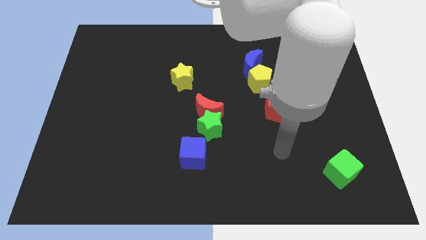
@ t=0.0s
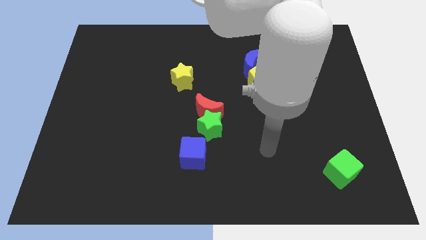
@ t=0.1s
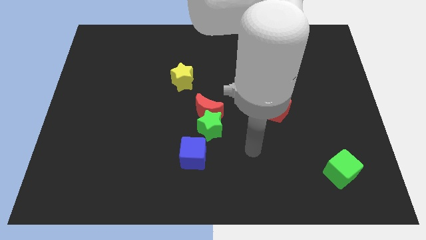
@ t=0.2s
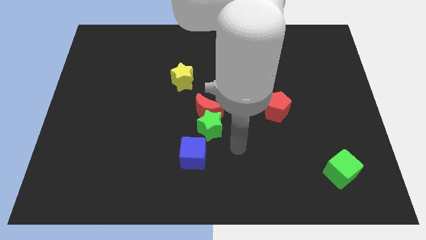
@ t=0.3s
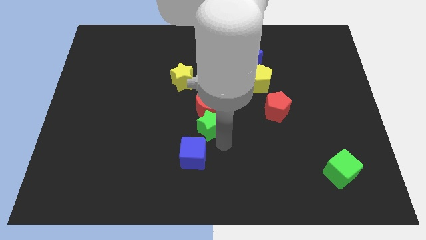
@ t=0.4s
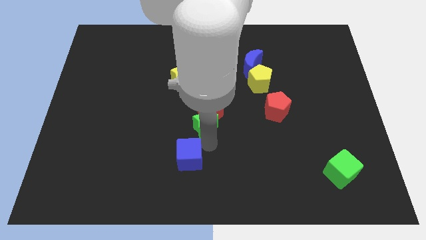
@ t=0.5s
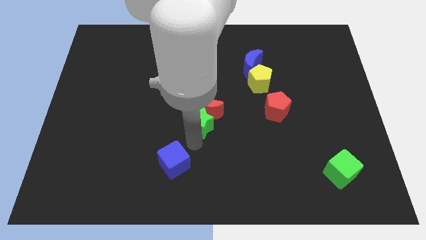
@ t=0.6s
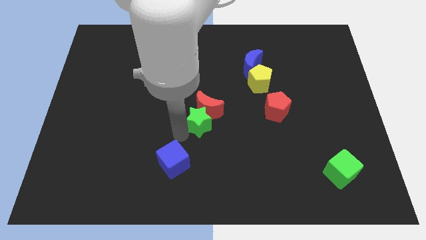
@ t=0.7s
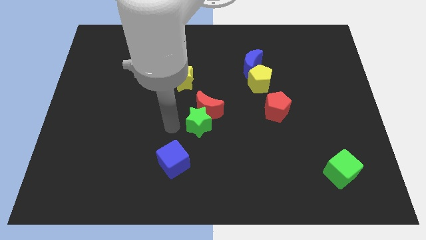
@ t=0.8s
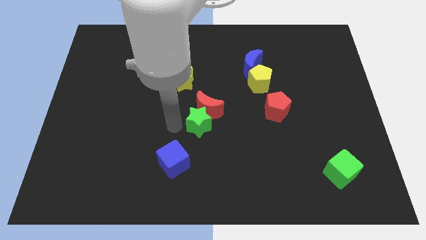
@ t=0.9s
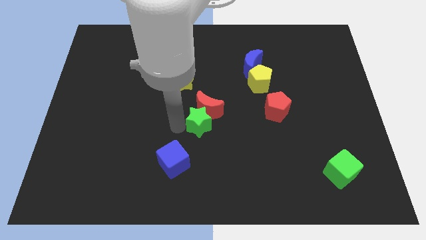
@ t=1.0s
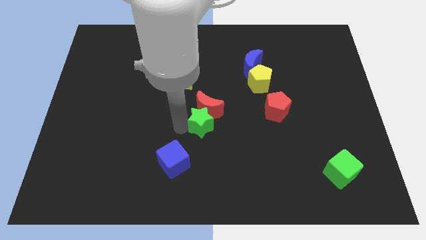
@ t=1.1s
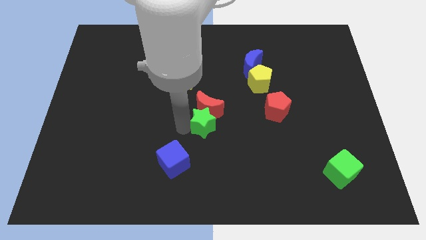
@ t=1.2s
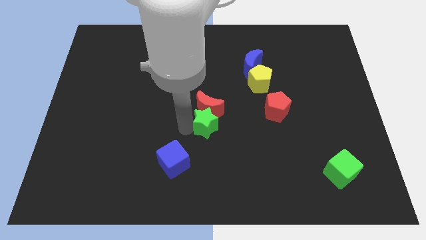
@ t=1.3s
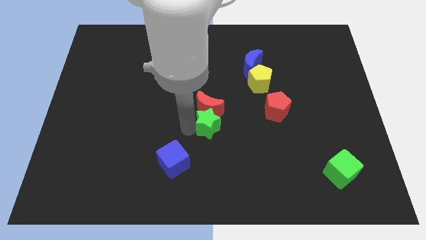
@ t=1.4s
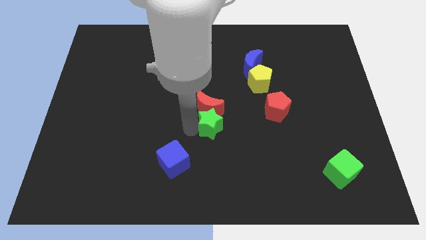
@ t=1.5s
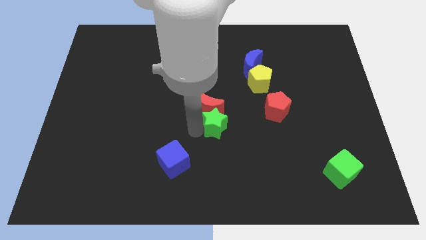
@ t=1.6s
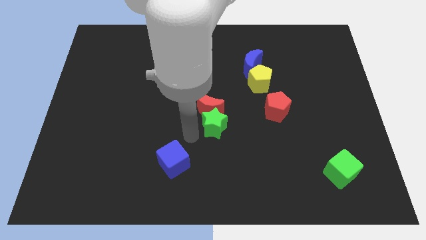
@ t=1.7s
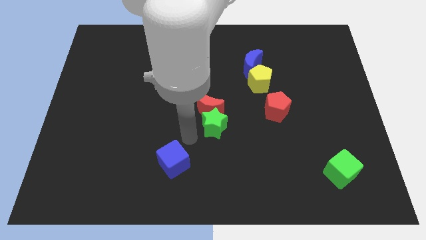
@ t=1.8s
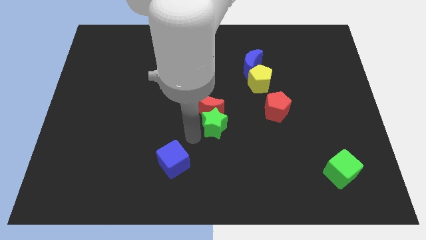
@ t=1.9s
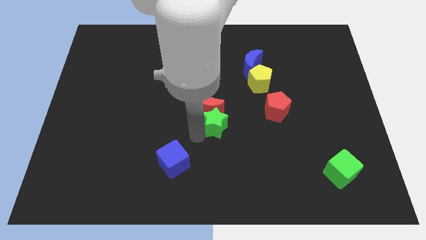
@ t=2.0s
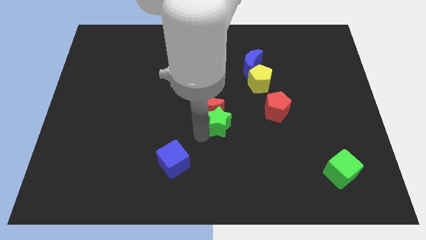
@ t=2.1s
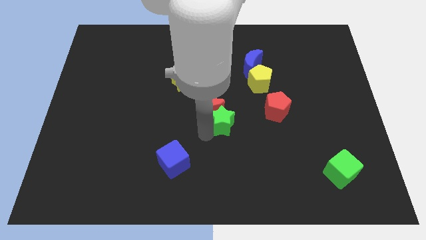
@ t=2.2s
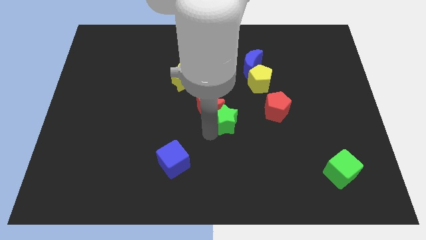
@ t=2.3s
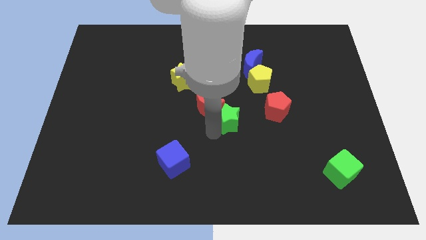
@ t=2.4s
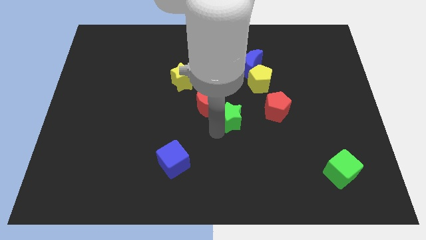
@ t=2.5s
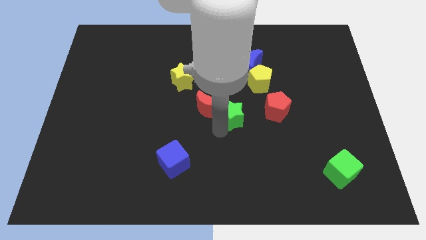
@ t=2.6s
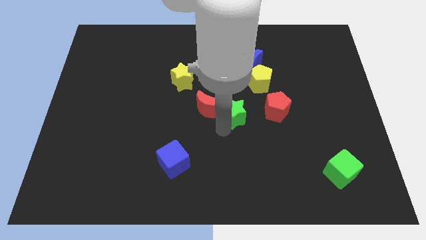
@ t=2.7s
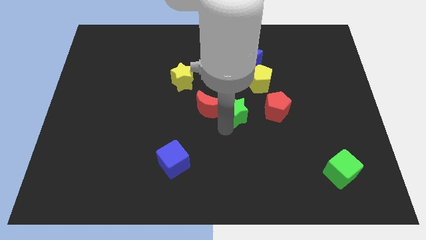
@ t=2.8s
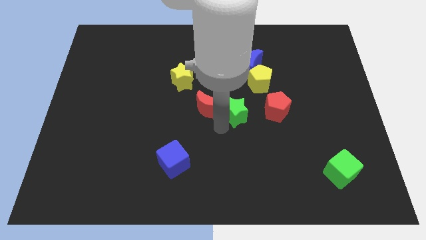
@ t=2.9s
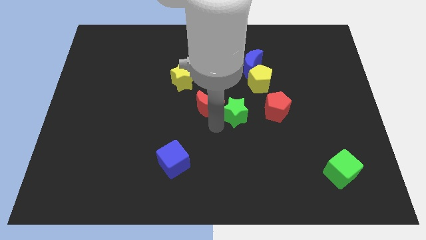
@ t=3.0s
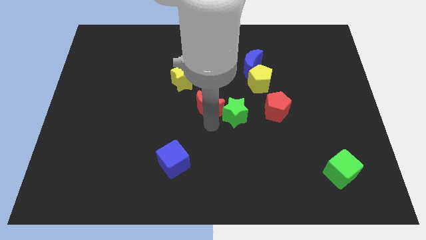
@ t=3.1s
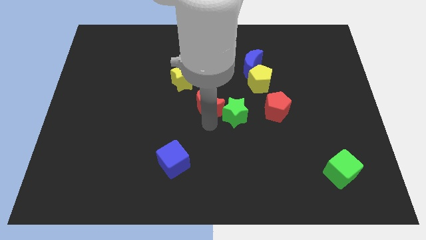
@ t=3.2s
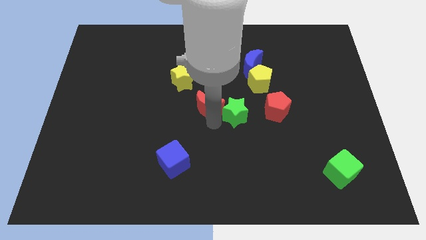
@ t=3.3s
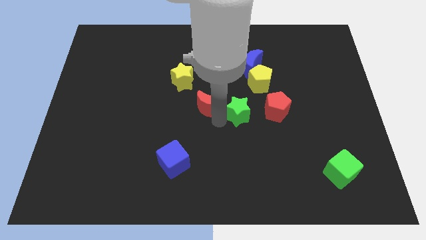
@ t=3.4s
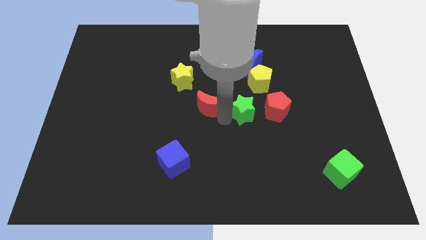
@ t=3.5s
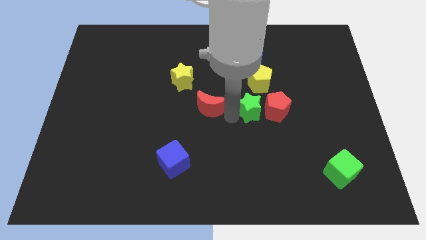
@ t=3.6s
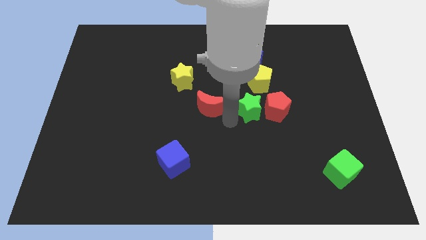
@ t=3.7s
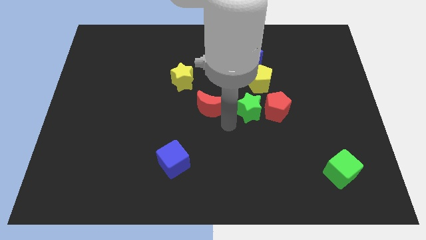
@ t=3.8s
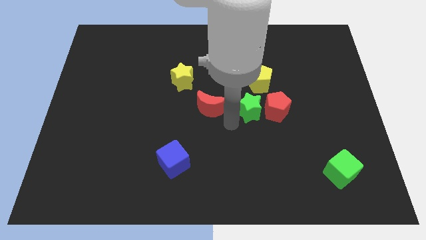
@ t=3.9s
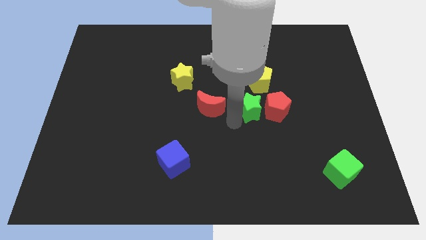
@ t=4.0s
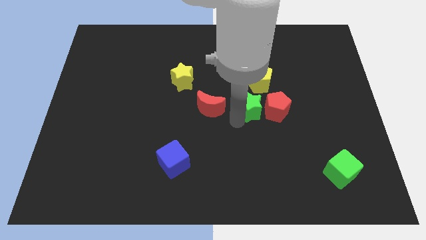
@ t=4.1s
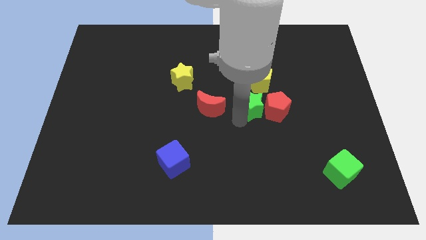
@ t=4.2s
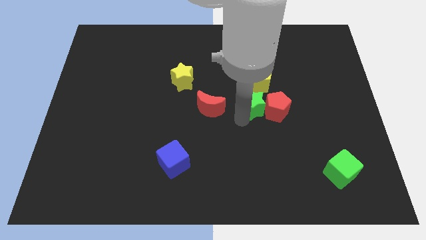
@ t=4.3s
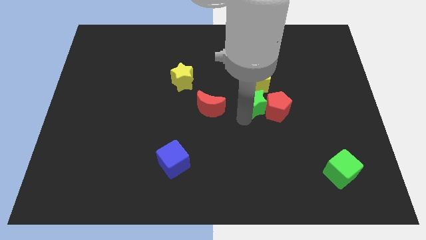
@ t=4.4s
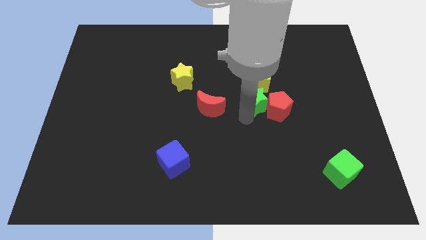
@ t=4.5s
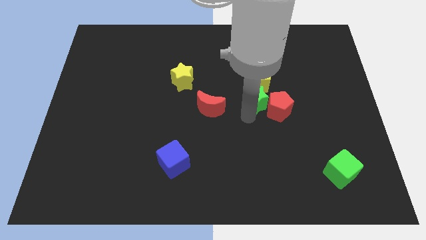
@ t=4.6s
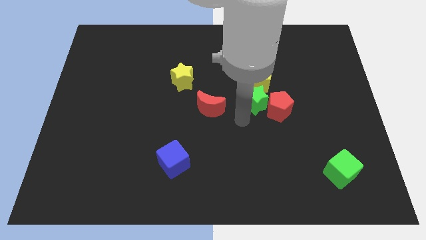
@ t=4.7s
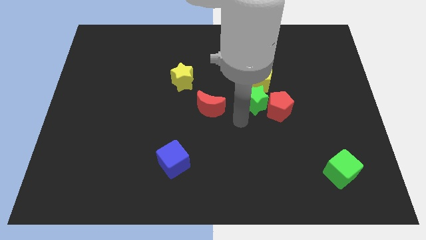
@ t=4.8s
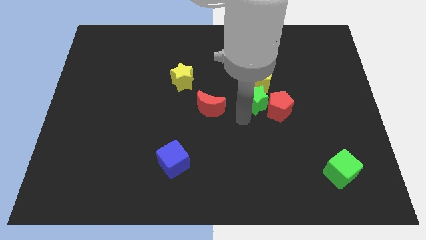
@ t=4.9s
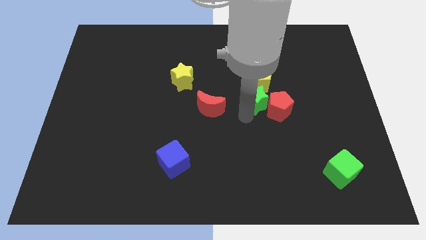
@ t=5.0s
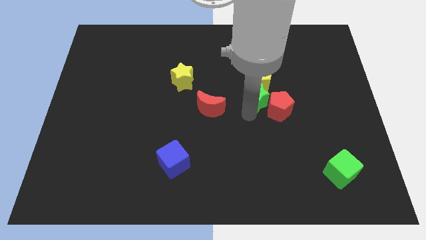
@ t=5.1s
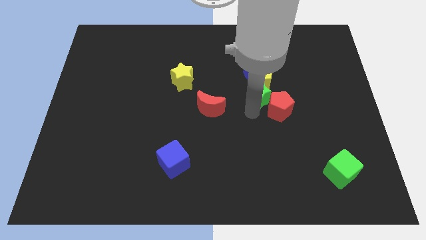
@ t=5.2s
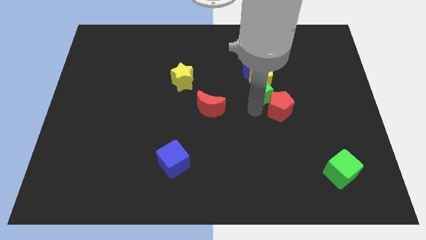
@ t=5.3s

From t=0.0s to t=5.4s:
push the green star above the red pentagon

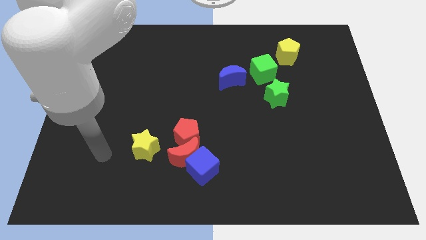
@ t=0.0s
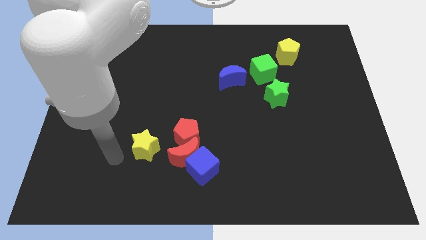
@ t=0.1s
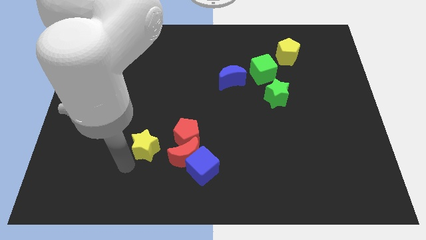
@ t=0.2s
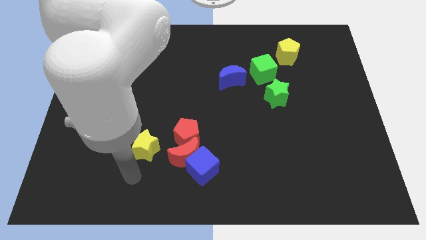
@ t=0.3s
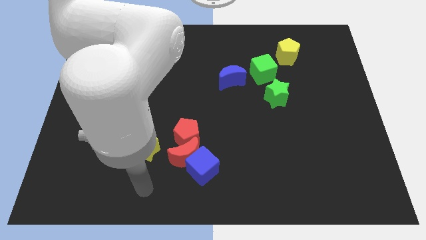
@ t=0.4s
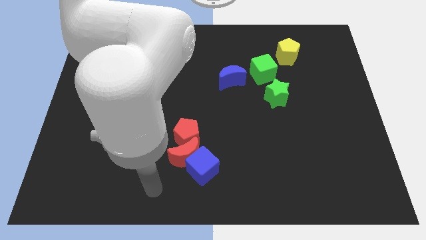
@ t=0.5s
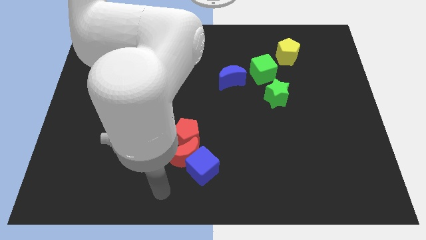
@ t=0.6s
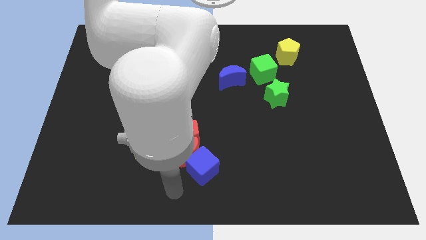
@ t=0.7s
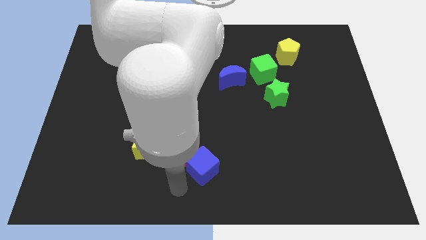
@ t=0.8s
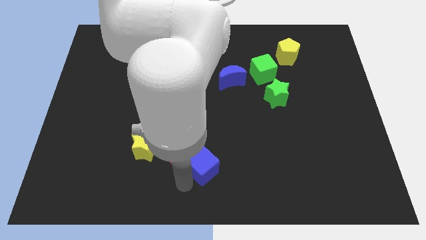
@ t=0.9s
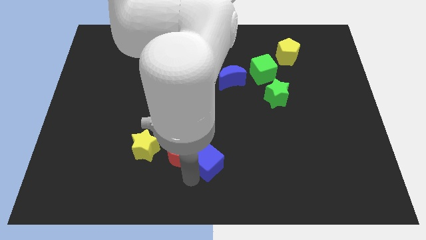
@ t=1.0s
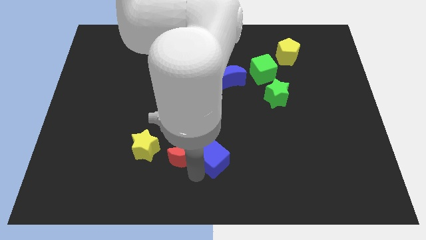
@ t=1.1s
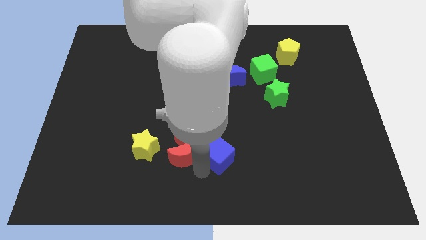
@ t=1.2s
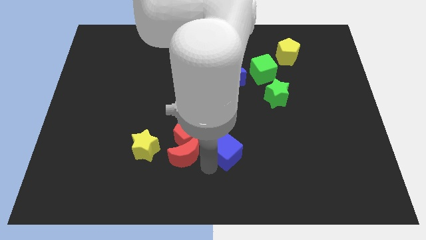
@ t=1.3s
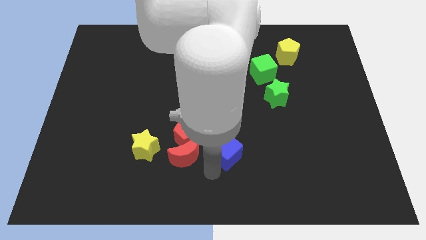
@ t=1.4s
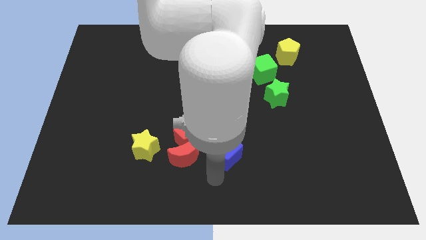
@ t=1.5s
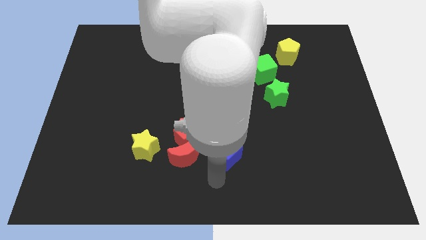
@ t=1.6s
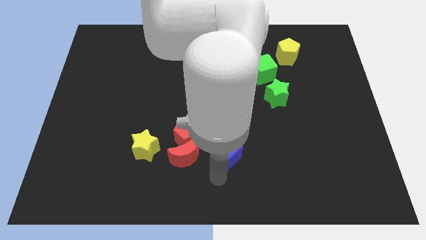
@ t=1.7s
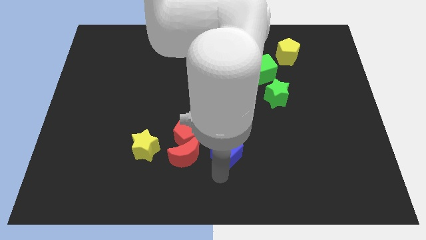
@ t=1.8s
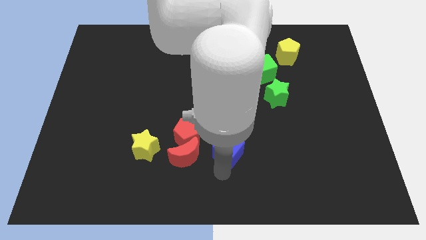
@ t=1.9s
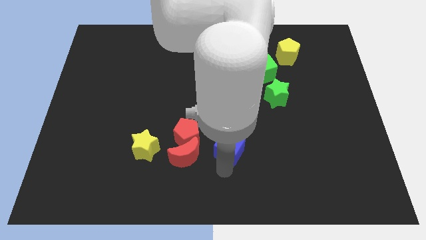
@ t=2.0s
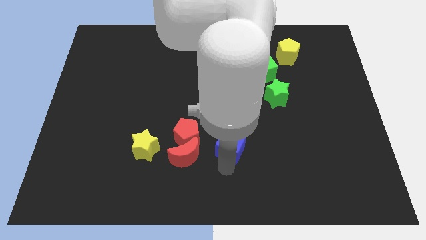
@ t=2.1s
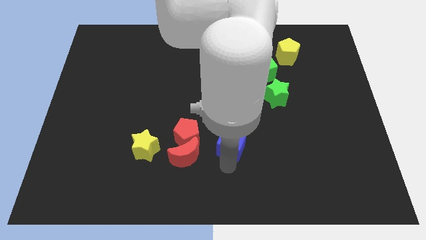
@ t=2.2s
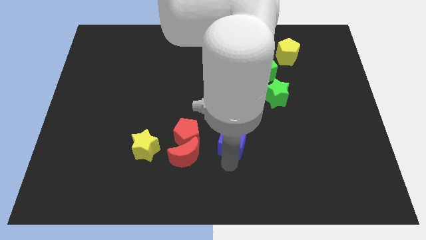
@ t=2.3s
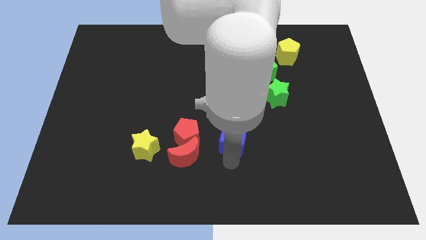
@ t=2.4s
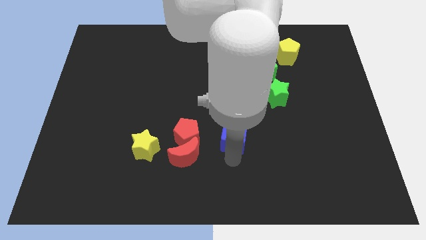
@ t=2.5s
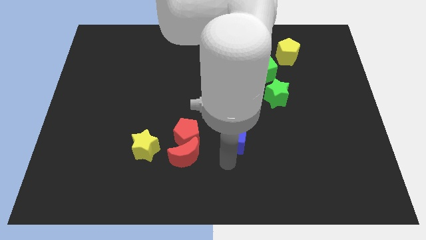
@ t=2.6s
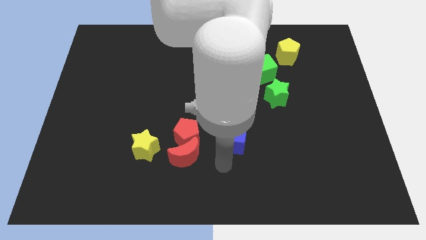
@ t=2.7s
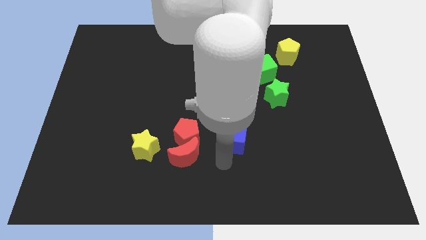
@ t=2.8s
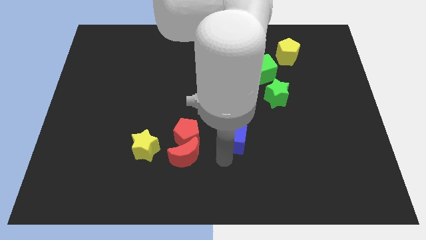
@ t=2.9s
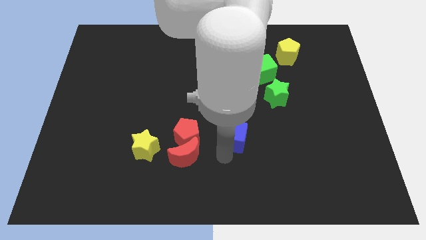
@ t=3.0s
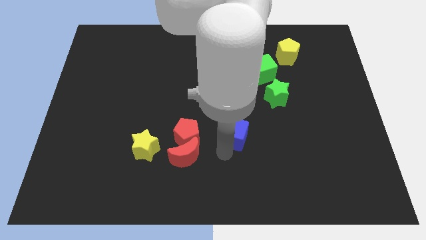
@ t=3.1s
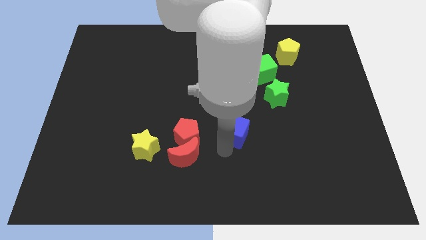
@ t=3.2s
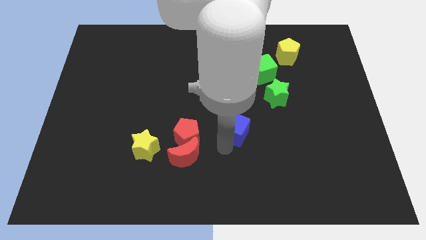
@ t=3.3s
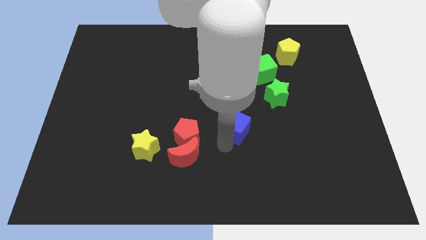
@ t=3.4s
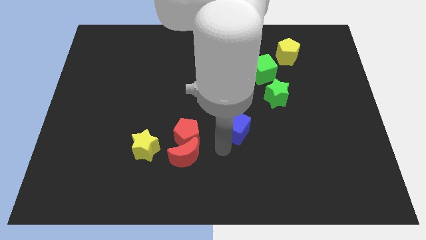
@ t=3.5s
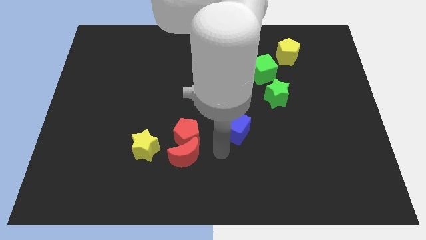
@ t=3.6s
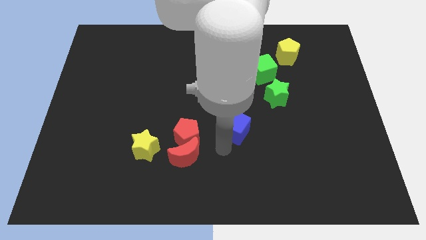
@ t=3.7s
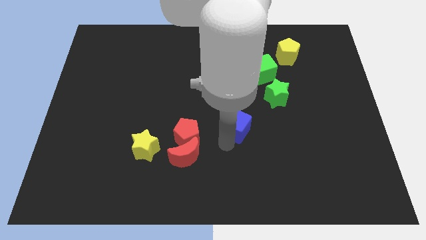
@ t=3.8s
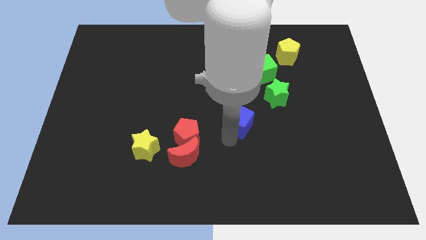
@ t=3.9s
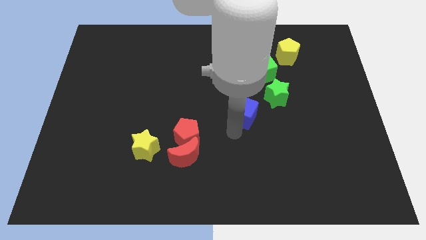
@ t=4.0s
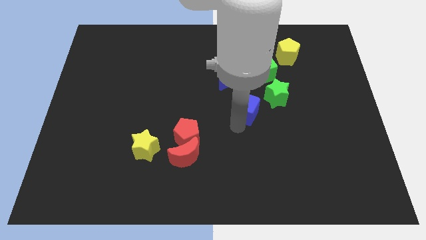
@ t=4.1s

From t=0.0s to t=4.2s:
move the blue cube to the bottom right side of the blue moon
